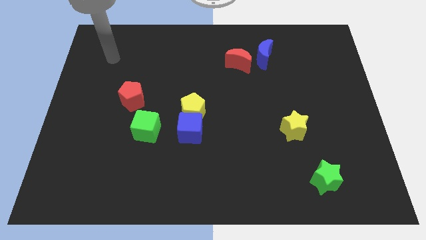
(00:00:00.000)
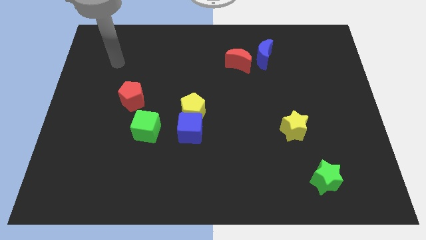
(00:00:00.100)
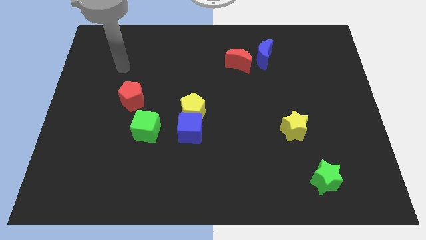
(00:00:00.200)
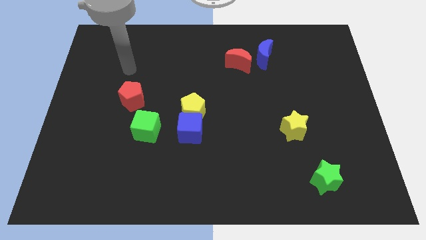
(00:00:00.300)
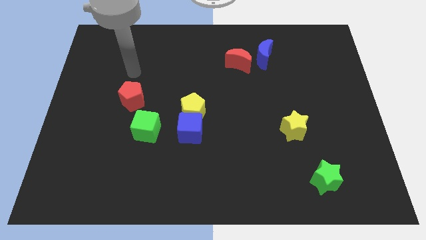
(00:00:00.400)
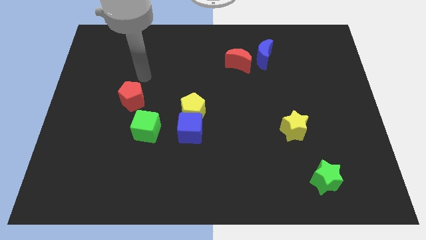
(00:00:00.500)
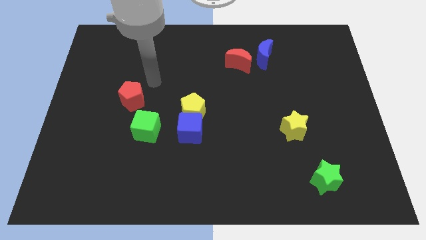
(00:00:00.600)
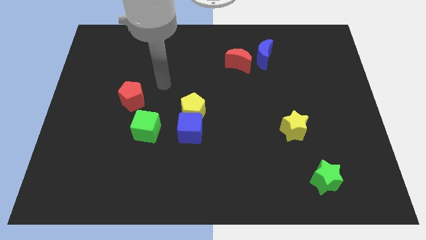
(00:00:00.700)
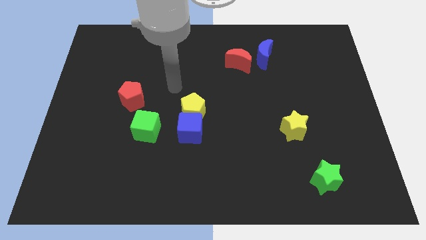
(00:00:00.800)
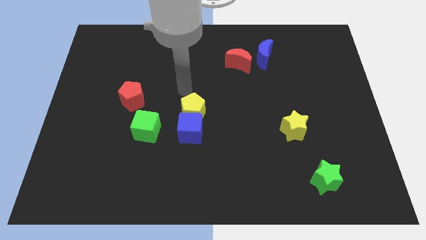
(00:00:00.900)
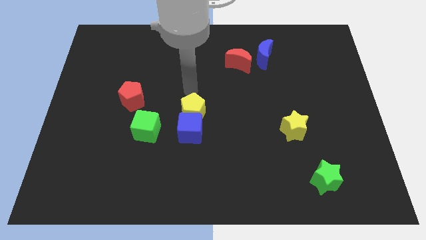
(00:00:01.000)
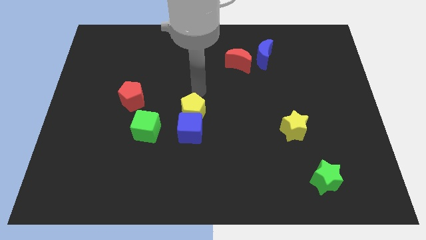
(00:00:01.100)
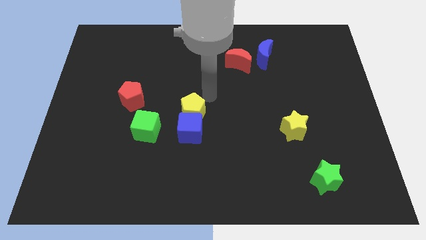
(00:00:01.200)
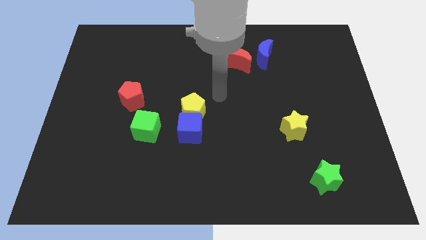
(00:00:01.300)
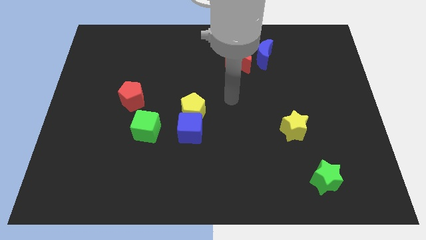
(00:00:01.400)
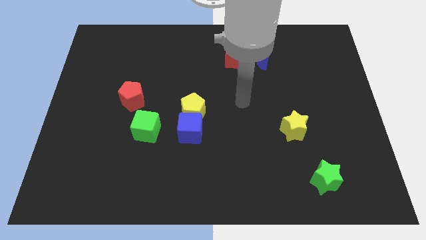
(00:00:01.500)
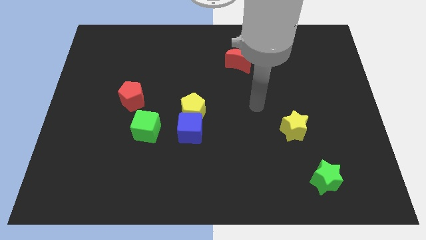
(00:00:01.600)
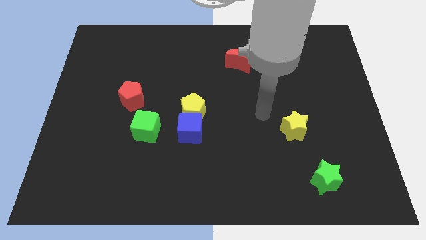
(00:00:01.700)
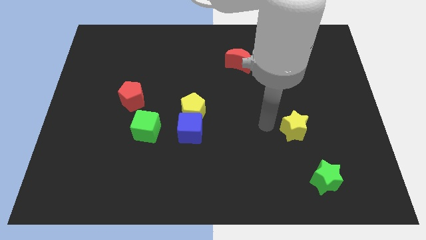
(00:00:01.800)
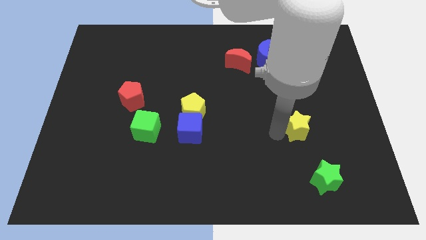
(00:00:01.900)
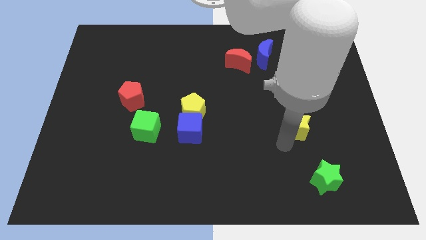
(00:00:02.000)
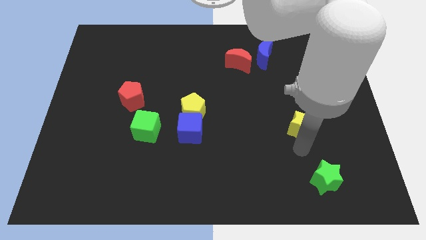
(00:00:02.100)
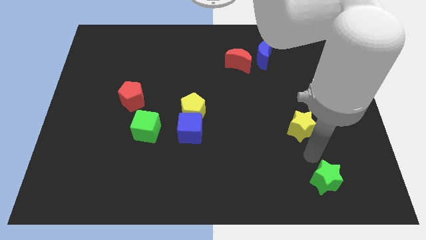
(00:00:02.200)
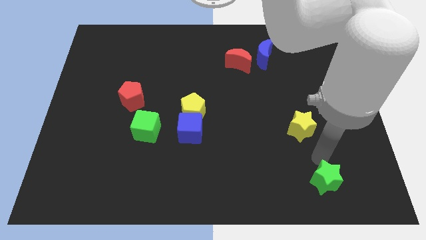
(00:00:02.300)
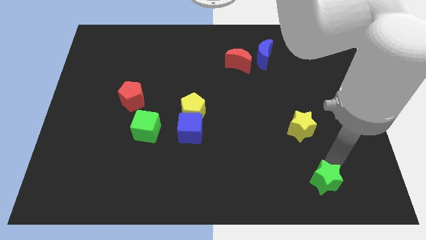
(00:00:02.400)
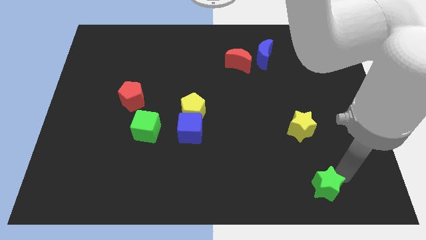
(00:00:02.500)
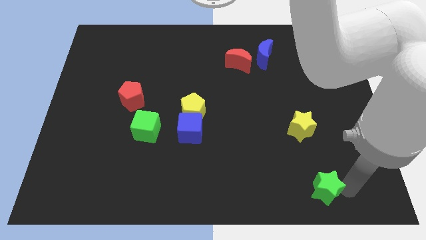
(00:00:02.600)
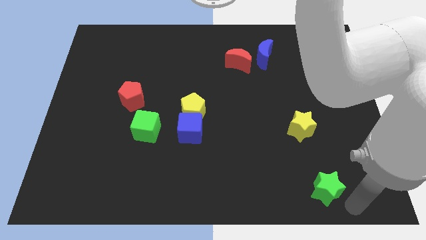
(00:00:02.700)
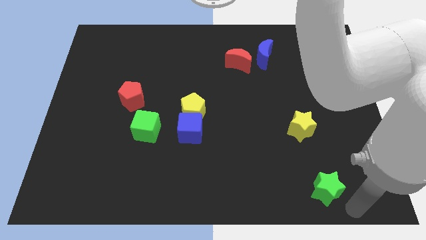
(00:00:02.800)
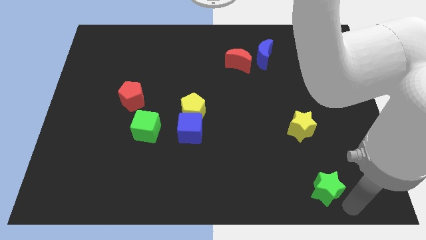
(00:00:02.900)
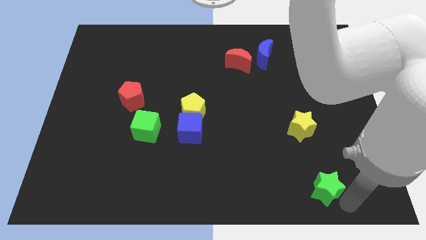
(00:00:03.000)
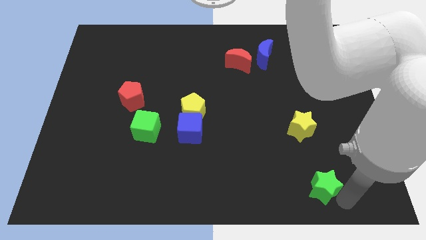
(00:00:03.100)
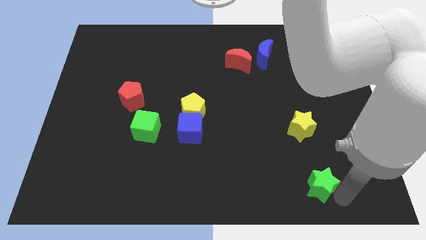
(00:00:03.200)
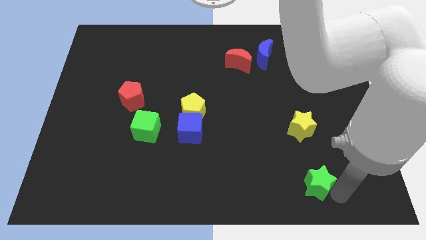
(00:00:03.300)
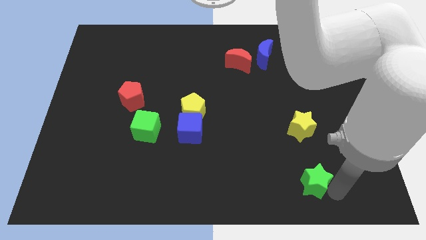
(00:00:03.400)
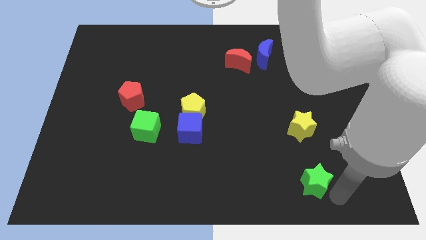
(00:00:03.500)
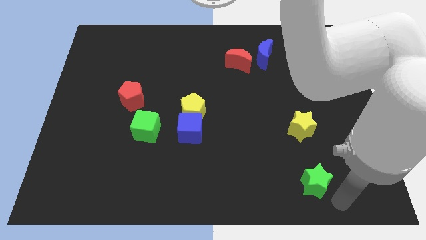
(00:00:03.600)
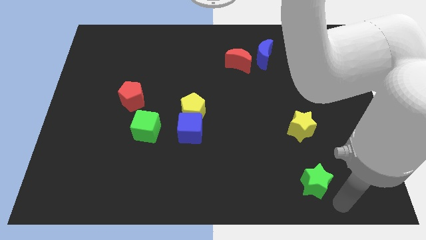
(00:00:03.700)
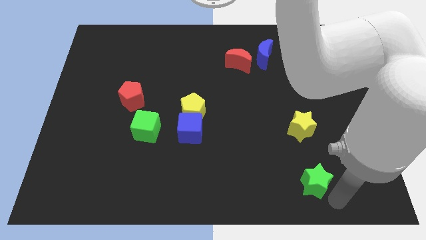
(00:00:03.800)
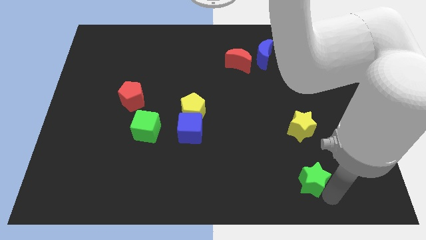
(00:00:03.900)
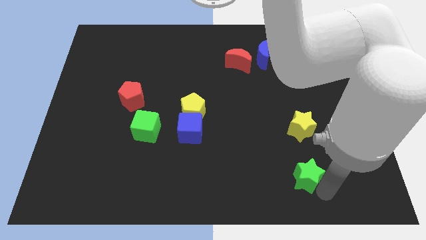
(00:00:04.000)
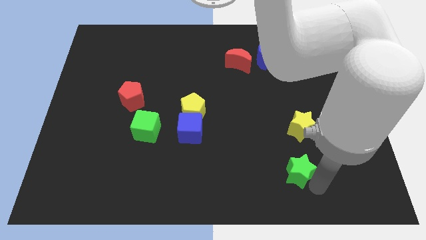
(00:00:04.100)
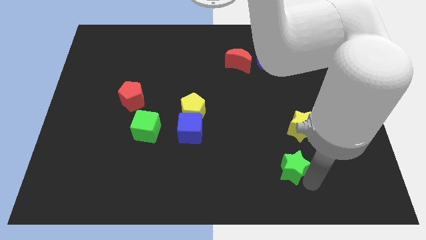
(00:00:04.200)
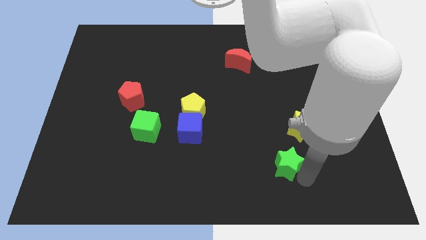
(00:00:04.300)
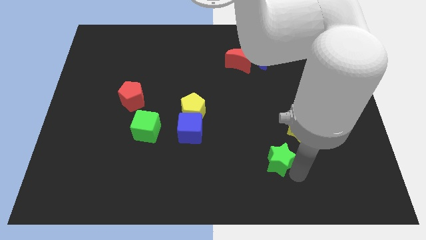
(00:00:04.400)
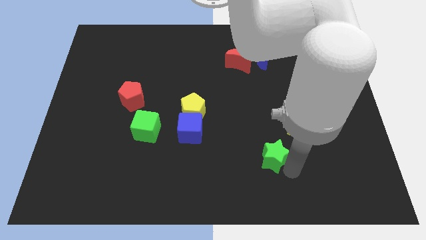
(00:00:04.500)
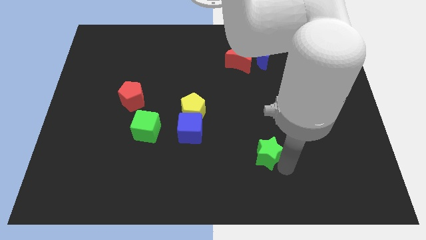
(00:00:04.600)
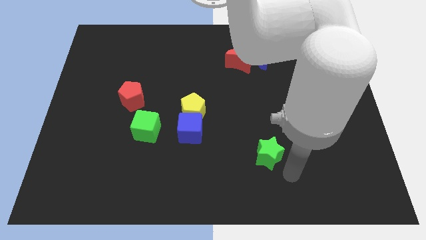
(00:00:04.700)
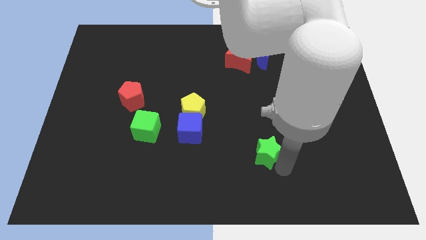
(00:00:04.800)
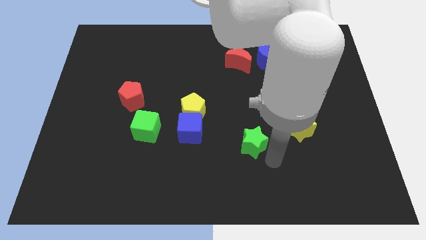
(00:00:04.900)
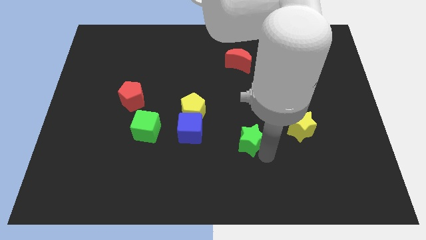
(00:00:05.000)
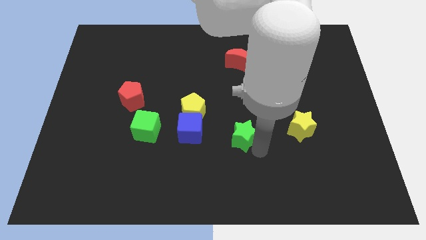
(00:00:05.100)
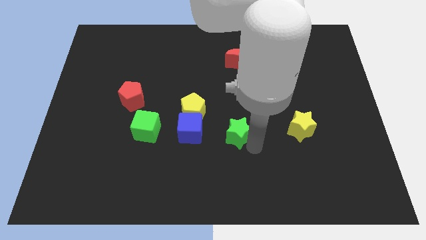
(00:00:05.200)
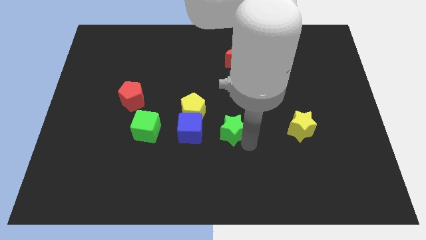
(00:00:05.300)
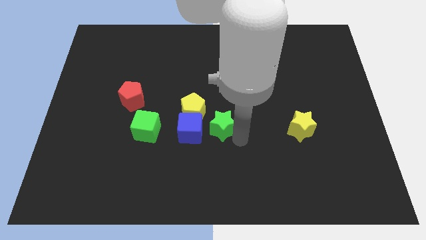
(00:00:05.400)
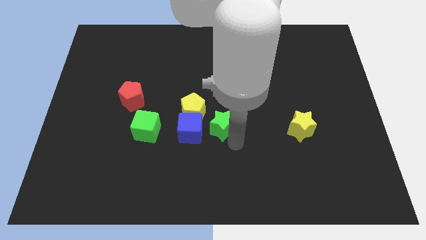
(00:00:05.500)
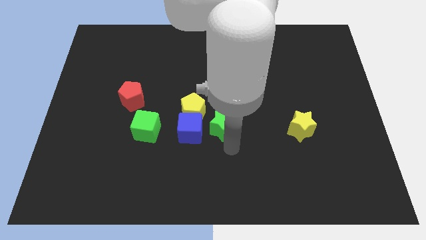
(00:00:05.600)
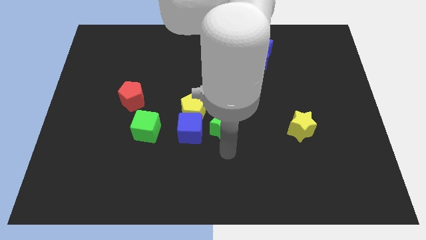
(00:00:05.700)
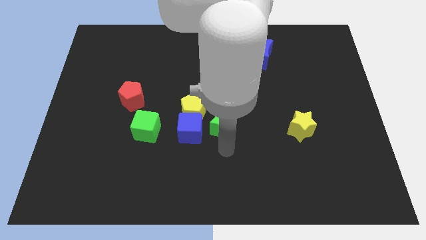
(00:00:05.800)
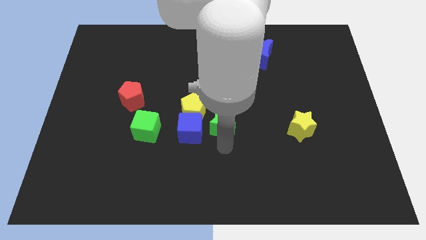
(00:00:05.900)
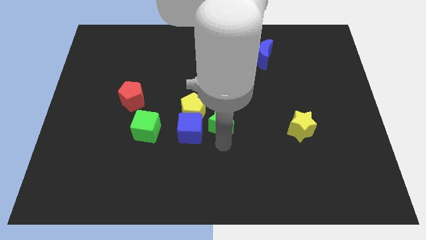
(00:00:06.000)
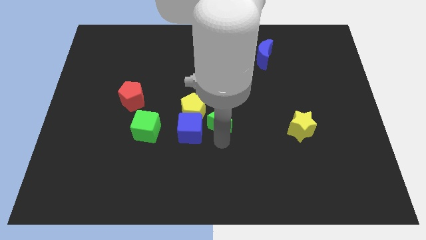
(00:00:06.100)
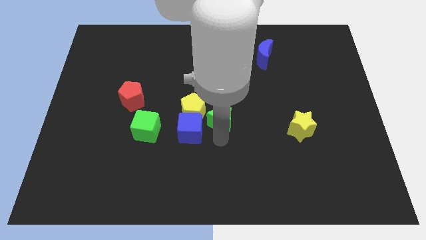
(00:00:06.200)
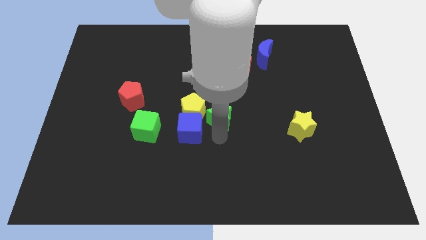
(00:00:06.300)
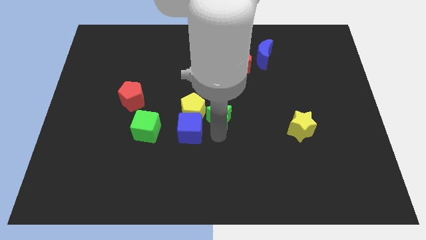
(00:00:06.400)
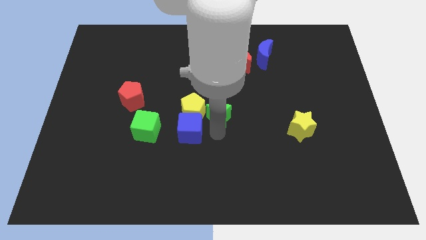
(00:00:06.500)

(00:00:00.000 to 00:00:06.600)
put the green star to the top right of the yellow pentagon

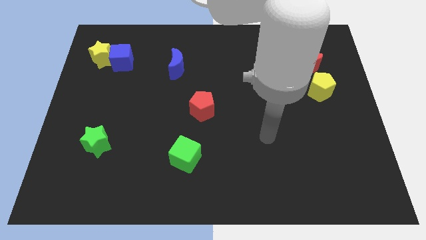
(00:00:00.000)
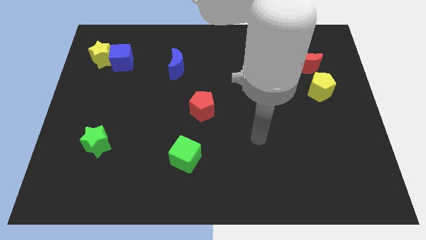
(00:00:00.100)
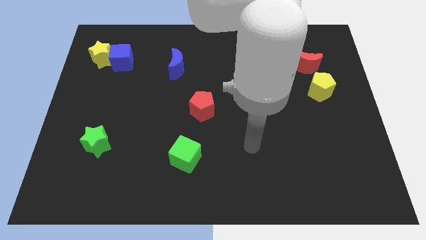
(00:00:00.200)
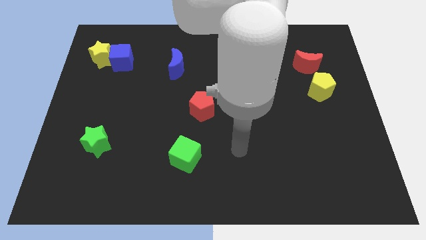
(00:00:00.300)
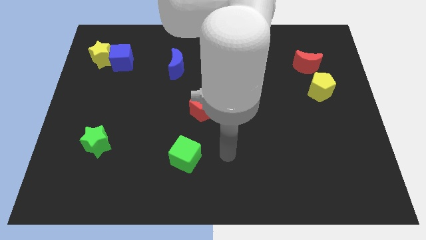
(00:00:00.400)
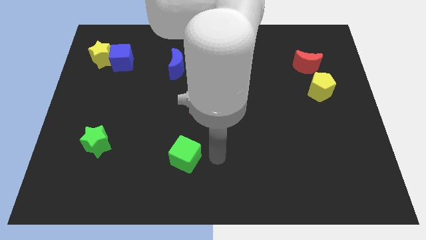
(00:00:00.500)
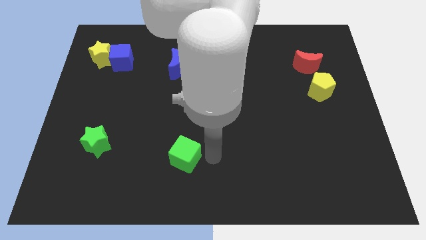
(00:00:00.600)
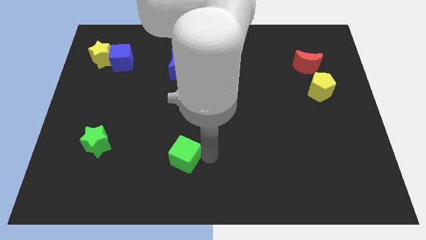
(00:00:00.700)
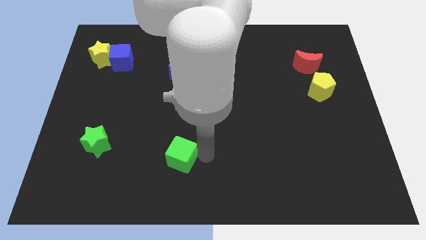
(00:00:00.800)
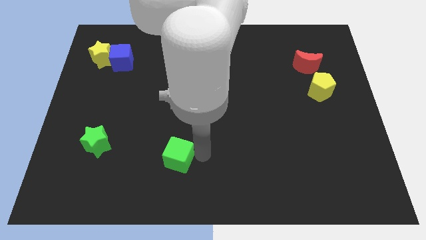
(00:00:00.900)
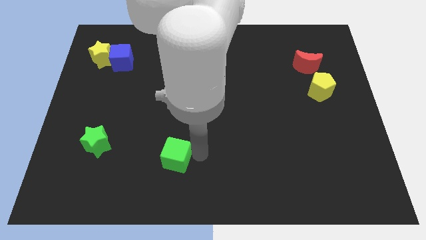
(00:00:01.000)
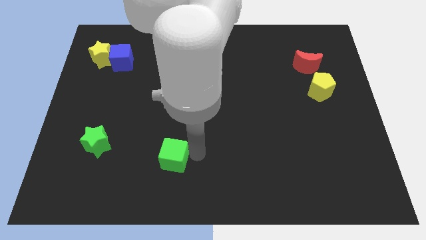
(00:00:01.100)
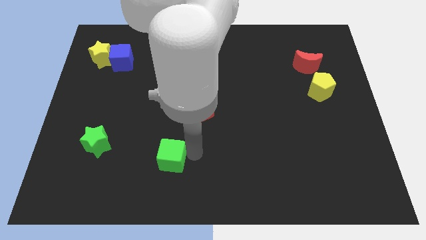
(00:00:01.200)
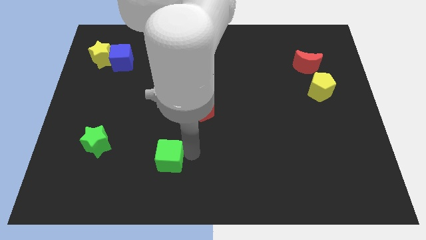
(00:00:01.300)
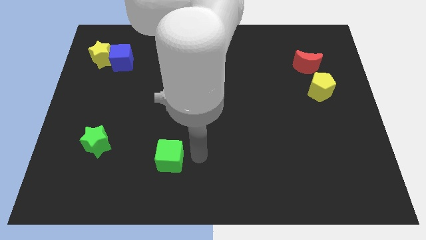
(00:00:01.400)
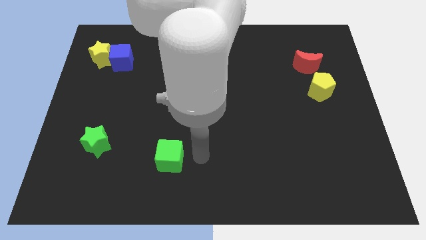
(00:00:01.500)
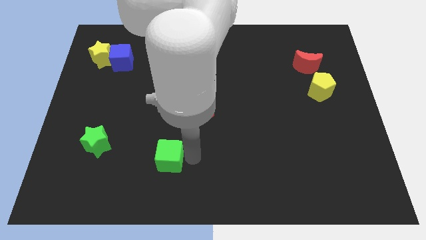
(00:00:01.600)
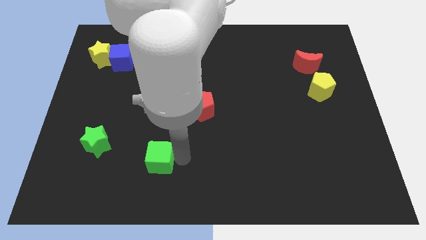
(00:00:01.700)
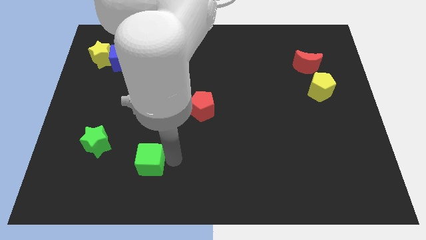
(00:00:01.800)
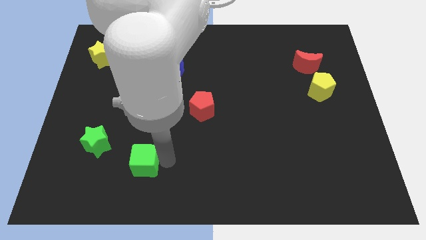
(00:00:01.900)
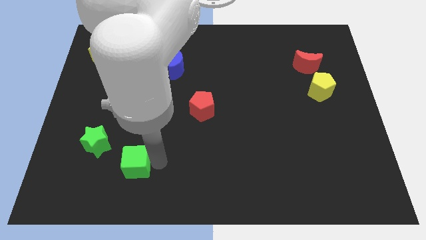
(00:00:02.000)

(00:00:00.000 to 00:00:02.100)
move the green cube to the bottom right of the green star
